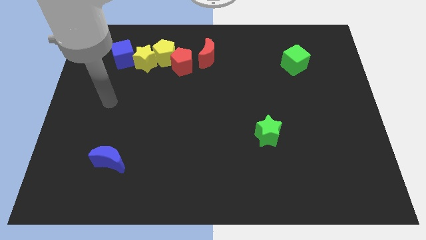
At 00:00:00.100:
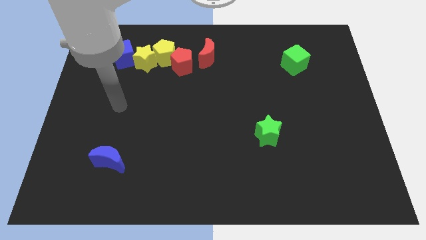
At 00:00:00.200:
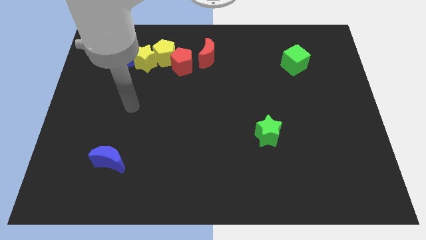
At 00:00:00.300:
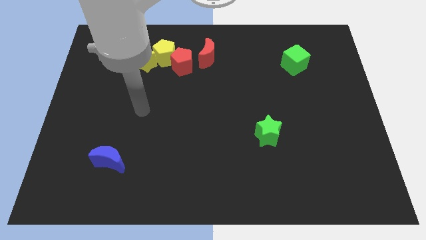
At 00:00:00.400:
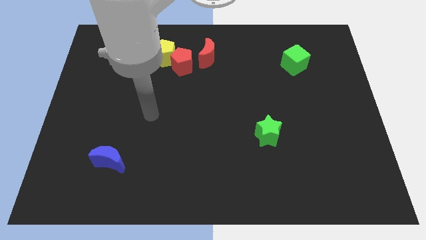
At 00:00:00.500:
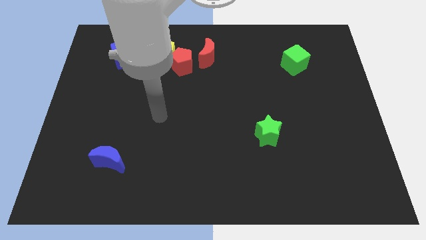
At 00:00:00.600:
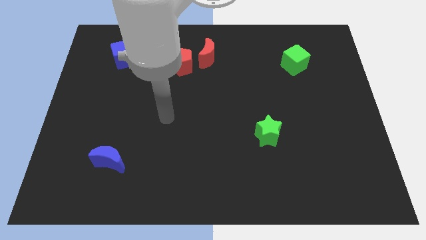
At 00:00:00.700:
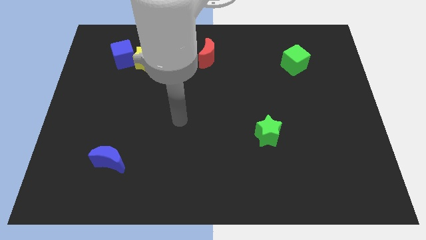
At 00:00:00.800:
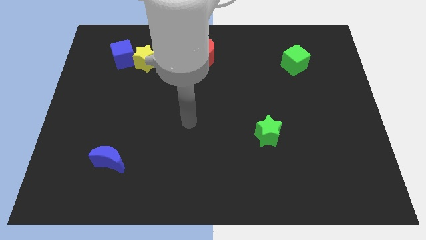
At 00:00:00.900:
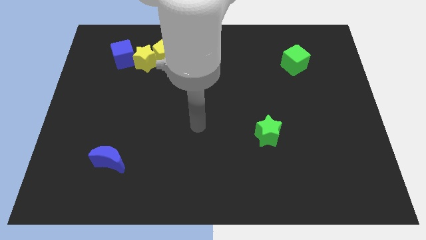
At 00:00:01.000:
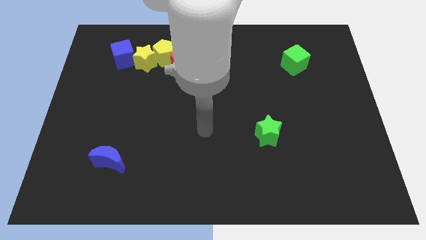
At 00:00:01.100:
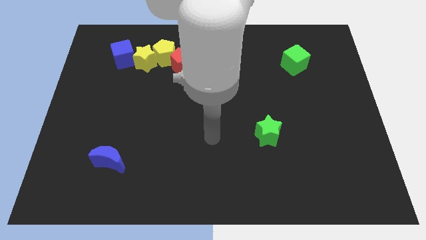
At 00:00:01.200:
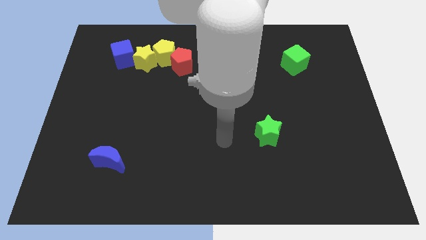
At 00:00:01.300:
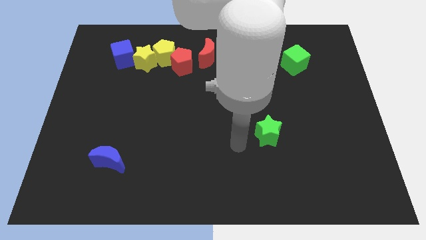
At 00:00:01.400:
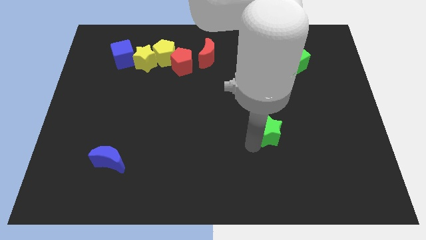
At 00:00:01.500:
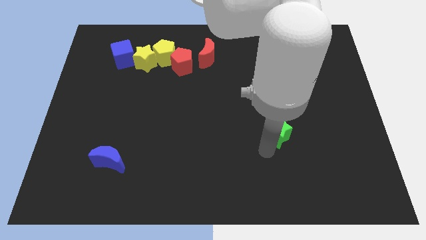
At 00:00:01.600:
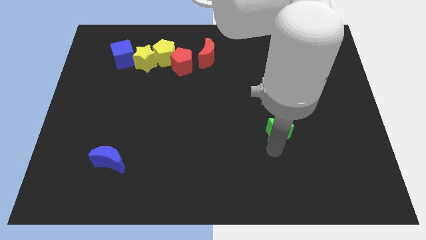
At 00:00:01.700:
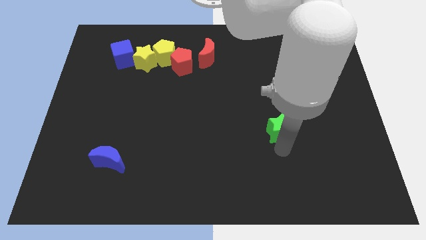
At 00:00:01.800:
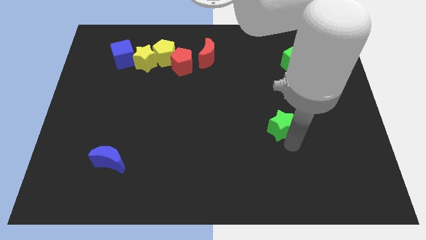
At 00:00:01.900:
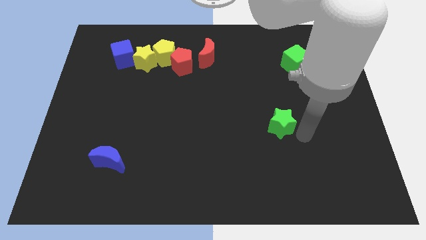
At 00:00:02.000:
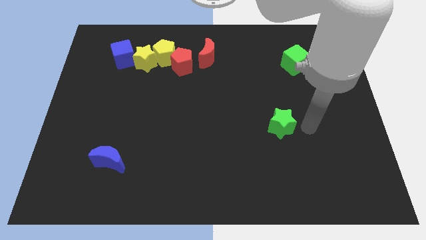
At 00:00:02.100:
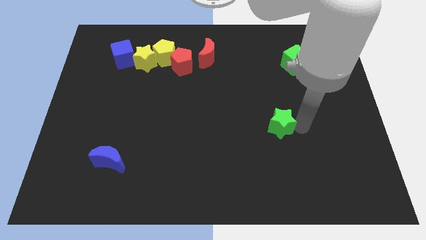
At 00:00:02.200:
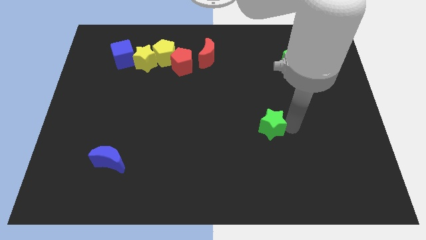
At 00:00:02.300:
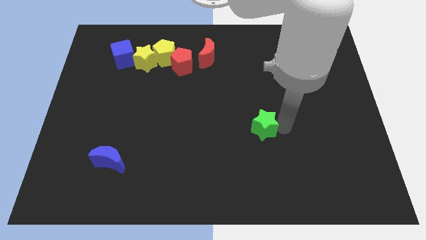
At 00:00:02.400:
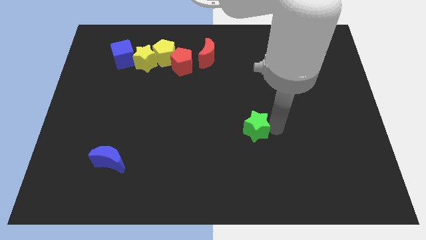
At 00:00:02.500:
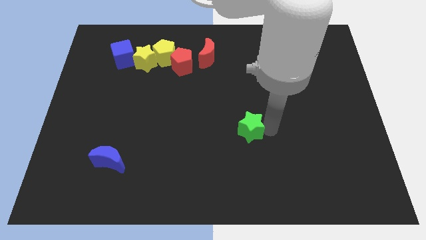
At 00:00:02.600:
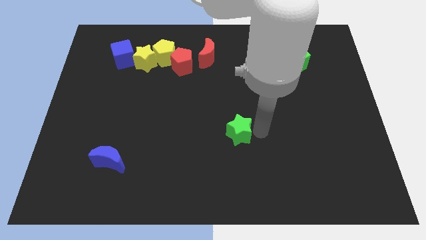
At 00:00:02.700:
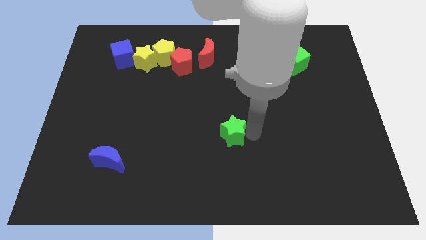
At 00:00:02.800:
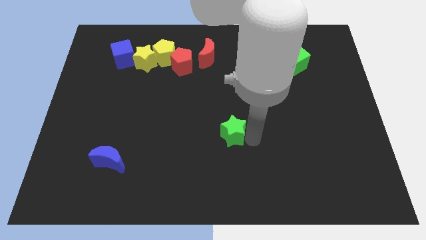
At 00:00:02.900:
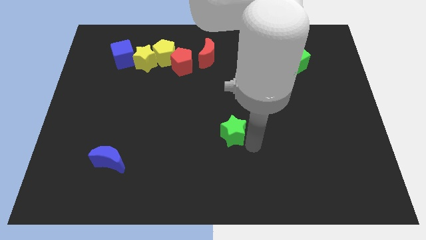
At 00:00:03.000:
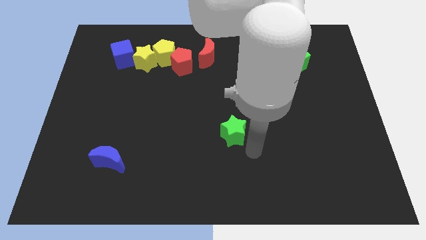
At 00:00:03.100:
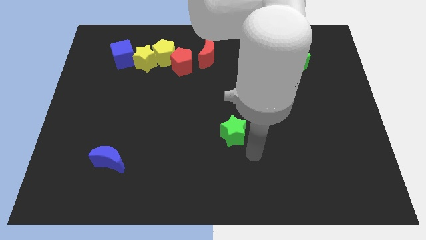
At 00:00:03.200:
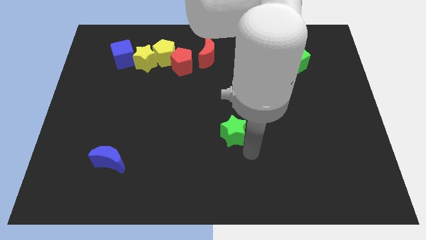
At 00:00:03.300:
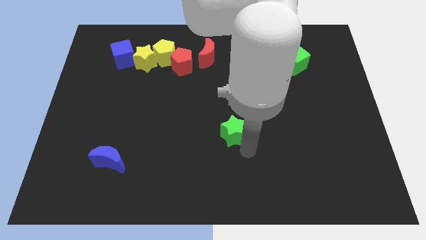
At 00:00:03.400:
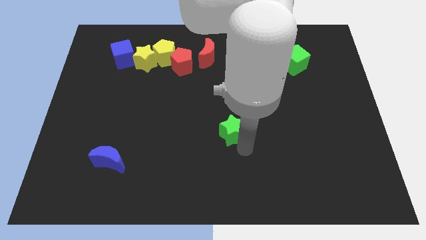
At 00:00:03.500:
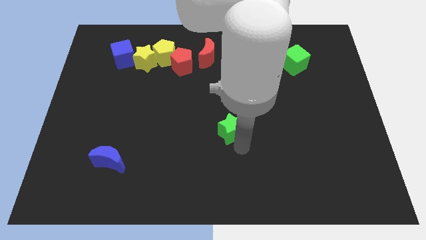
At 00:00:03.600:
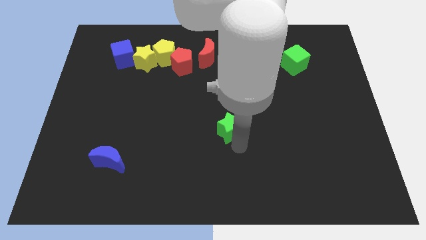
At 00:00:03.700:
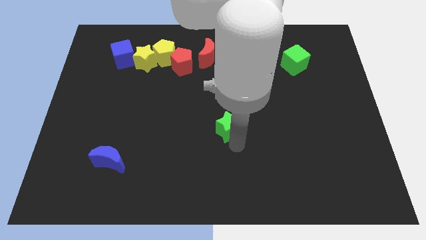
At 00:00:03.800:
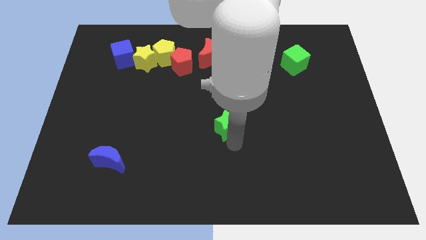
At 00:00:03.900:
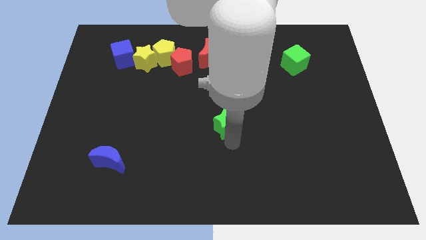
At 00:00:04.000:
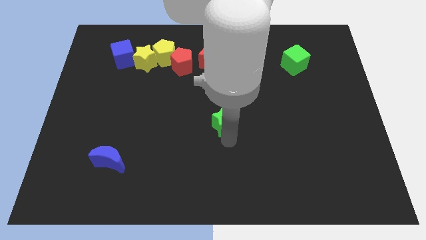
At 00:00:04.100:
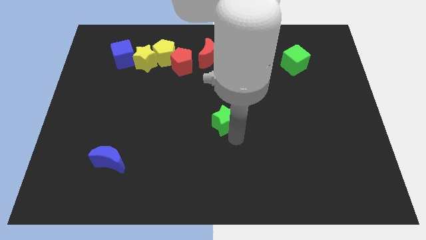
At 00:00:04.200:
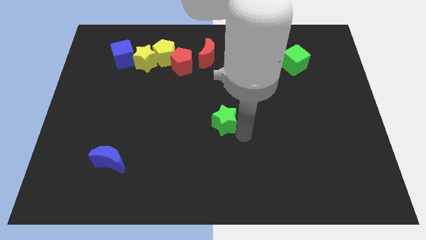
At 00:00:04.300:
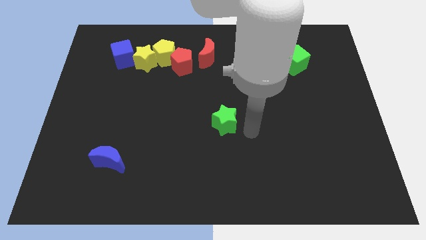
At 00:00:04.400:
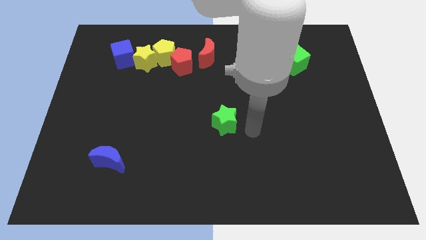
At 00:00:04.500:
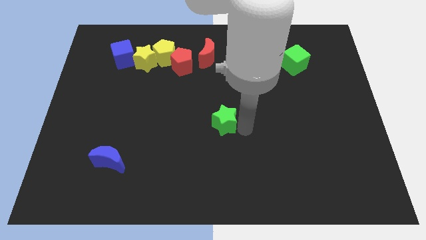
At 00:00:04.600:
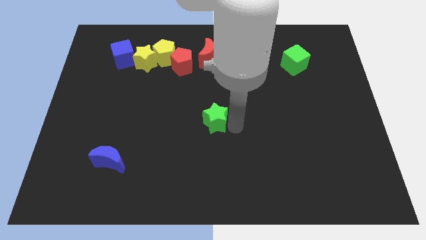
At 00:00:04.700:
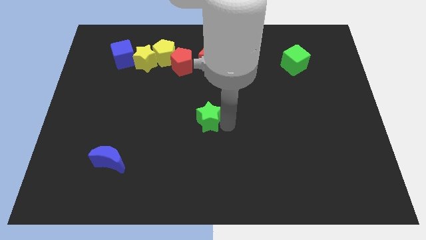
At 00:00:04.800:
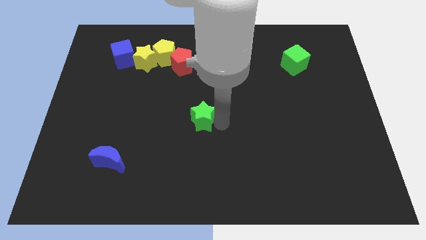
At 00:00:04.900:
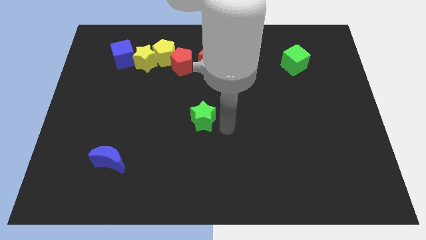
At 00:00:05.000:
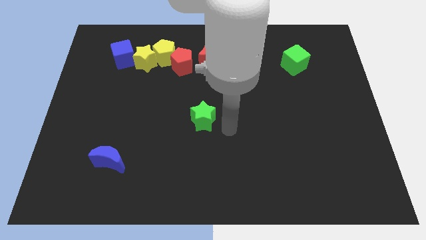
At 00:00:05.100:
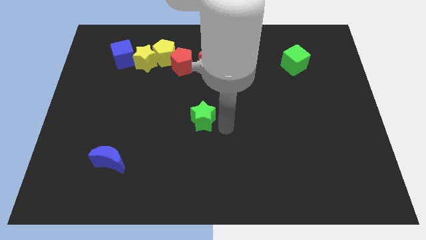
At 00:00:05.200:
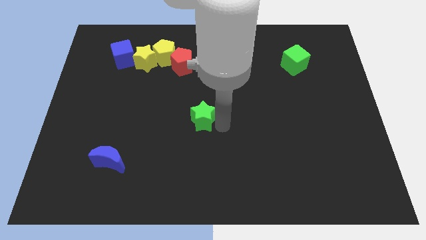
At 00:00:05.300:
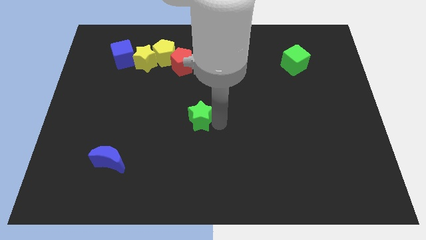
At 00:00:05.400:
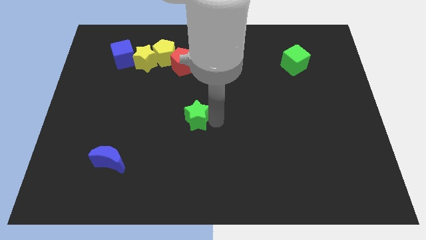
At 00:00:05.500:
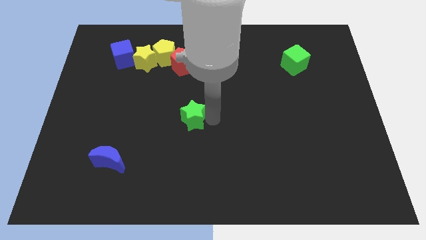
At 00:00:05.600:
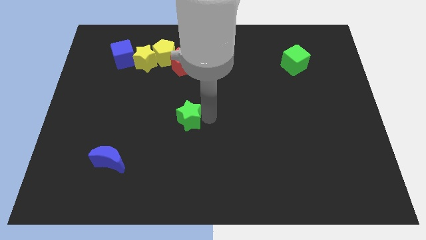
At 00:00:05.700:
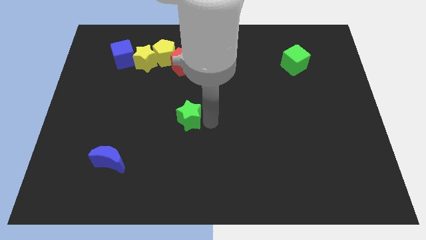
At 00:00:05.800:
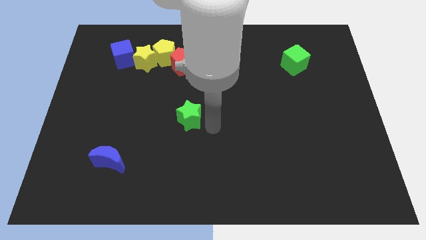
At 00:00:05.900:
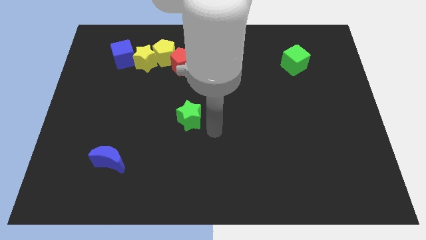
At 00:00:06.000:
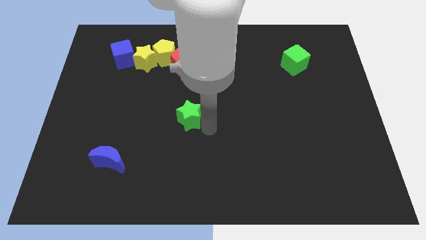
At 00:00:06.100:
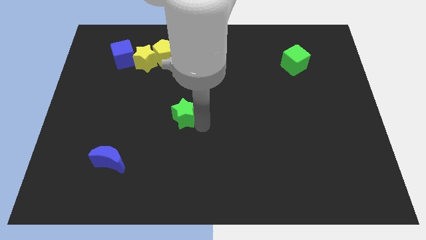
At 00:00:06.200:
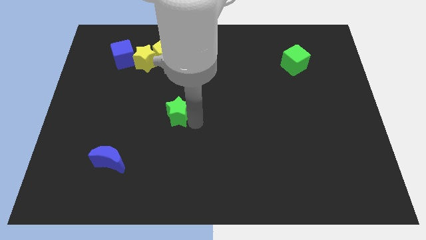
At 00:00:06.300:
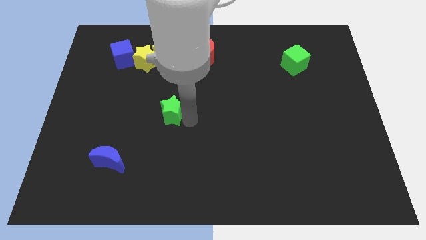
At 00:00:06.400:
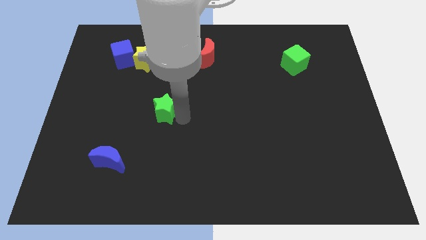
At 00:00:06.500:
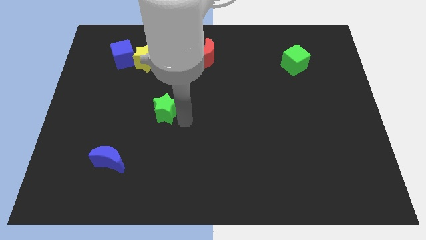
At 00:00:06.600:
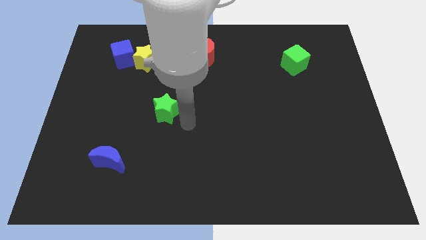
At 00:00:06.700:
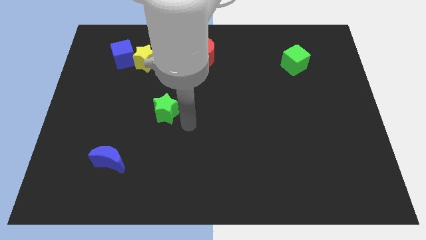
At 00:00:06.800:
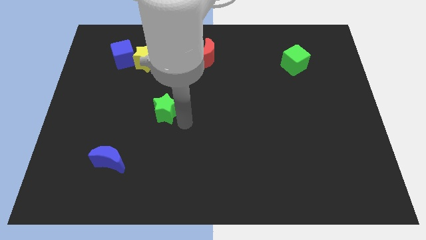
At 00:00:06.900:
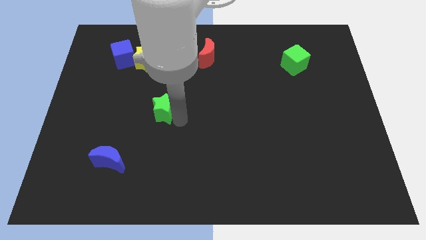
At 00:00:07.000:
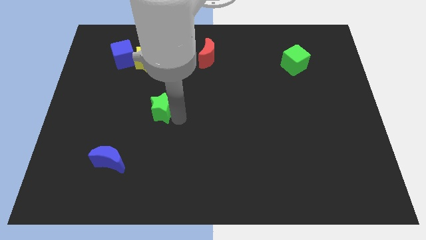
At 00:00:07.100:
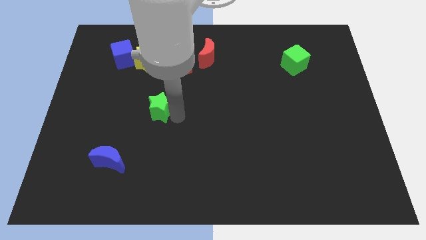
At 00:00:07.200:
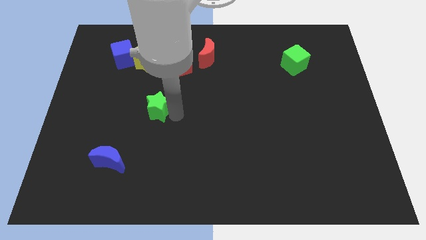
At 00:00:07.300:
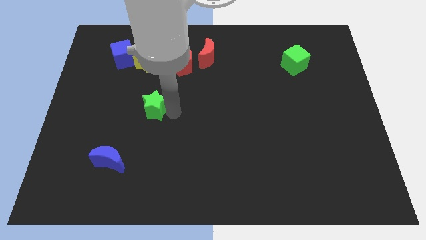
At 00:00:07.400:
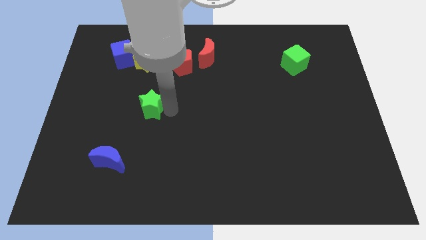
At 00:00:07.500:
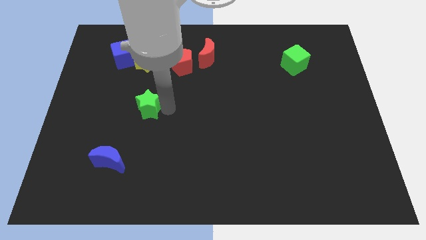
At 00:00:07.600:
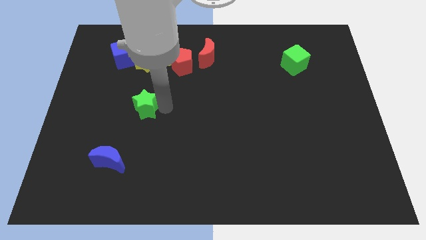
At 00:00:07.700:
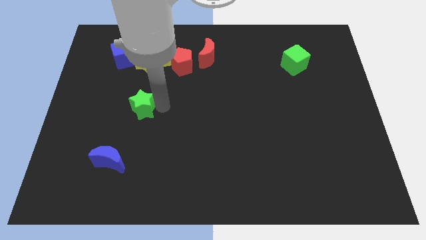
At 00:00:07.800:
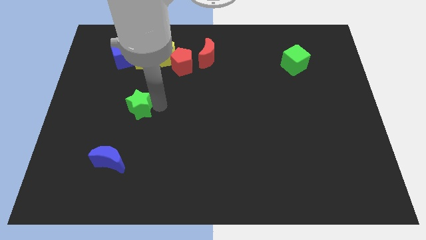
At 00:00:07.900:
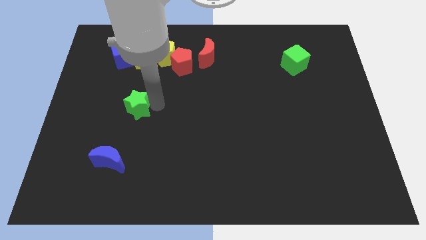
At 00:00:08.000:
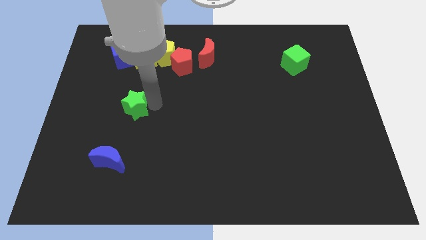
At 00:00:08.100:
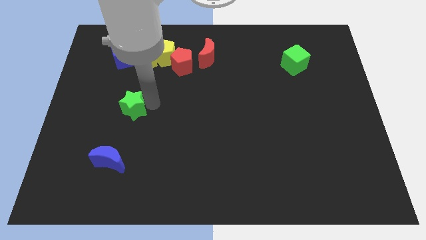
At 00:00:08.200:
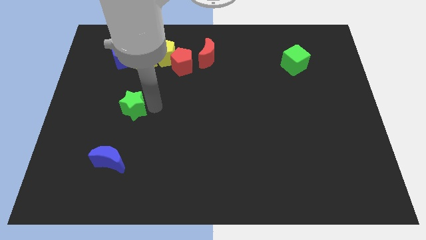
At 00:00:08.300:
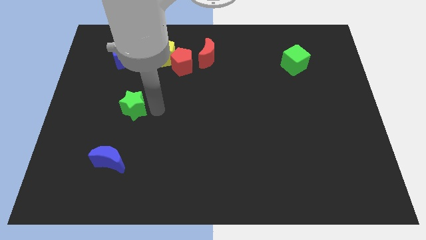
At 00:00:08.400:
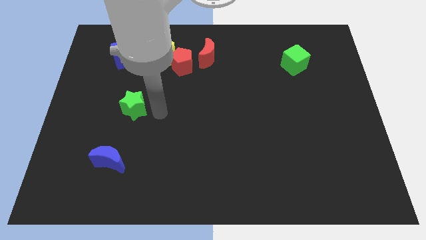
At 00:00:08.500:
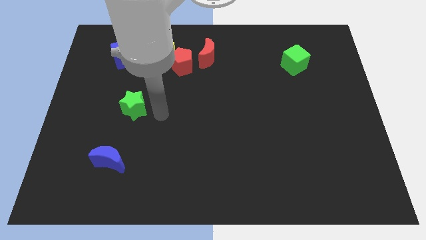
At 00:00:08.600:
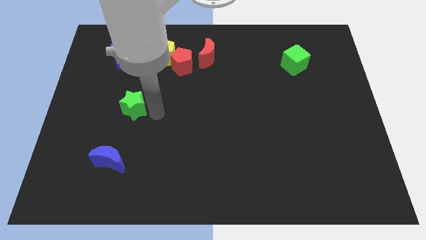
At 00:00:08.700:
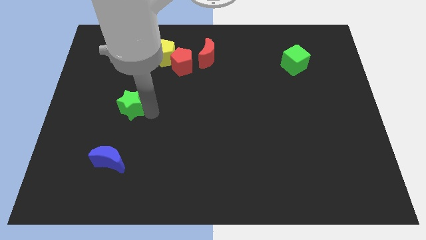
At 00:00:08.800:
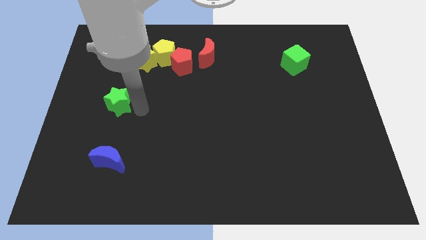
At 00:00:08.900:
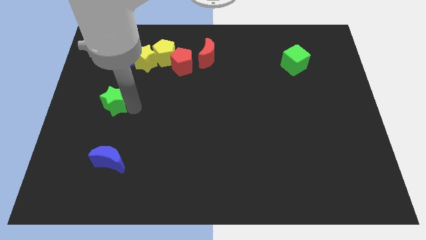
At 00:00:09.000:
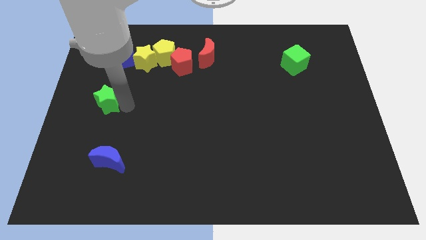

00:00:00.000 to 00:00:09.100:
put the green star to the left side of the board
